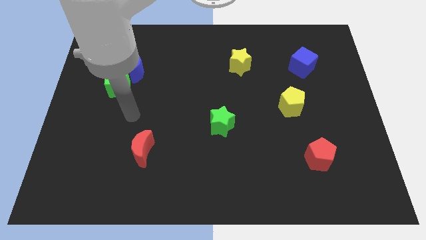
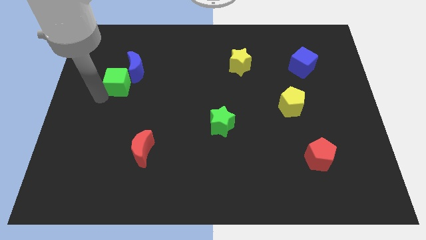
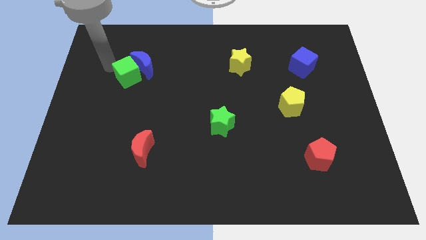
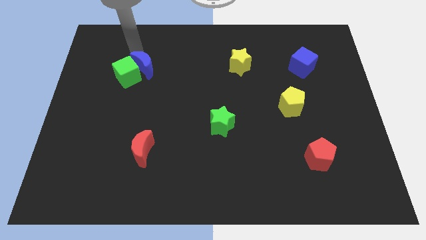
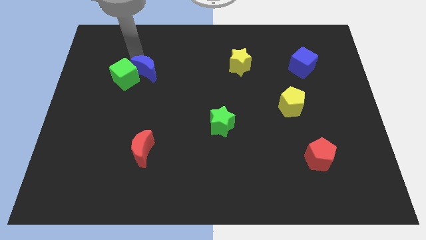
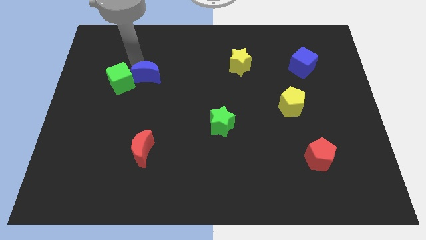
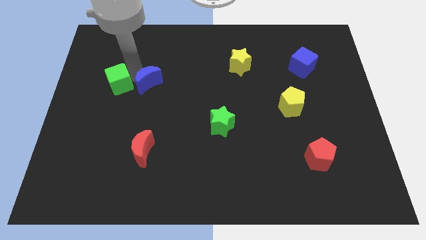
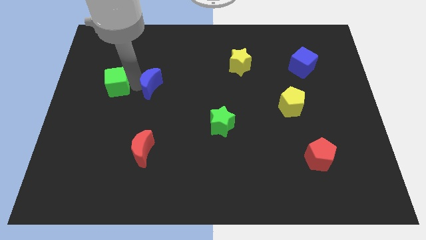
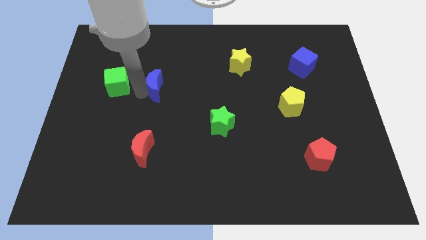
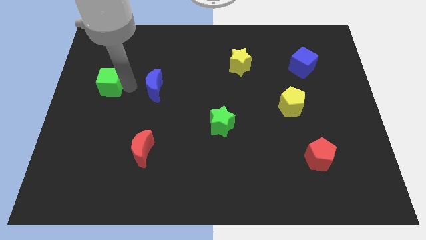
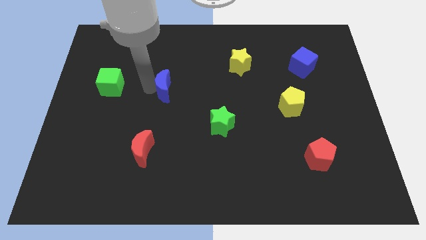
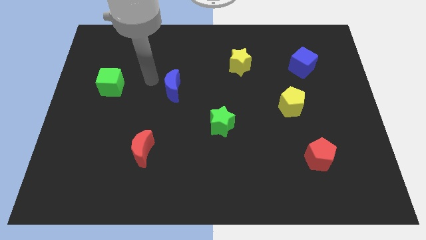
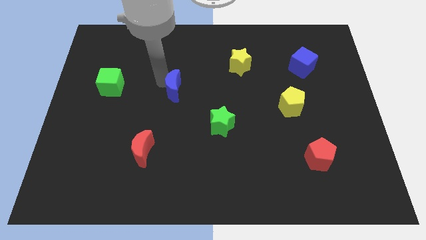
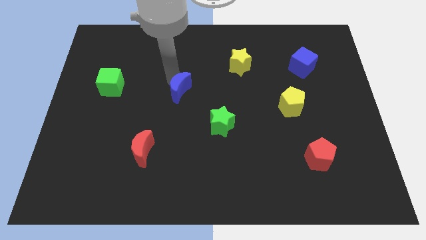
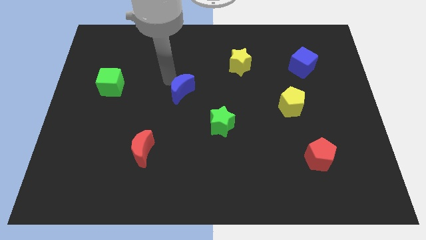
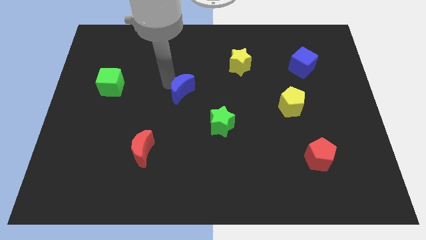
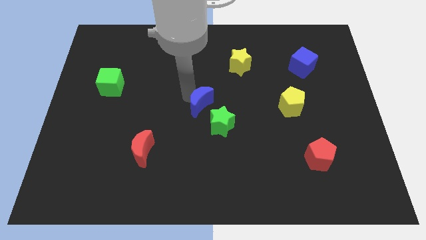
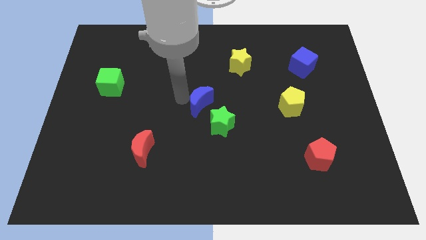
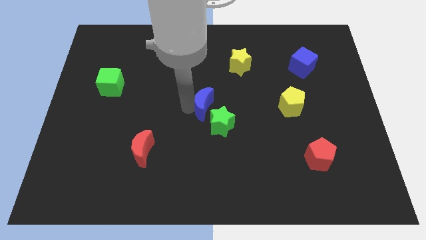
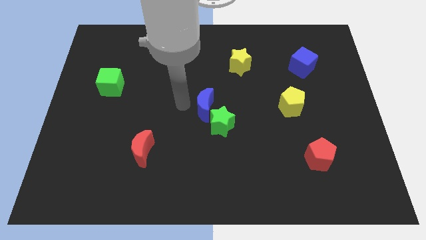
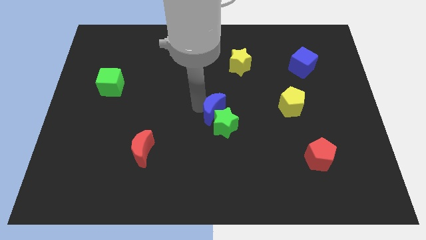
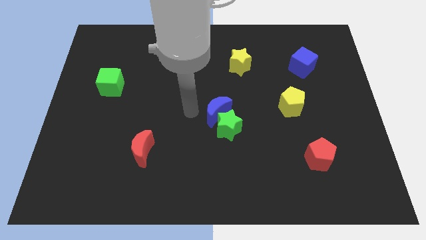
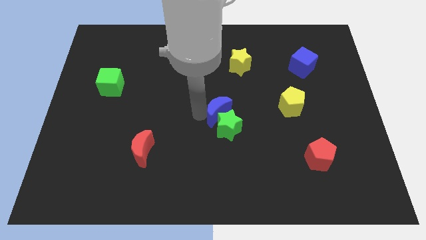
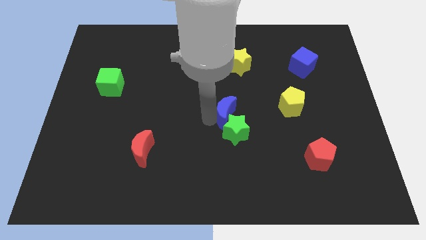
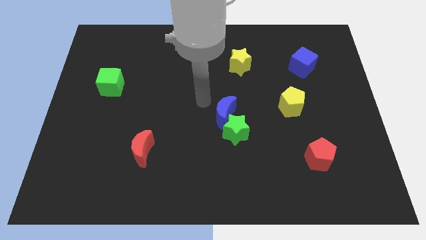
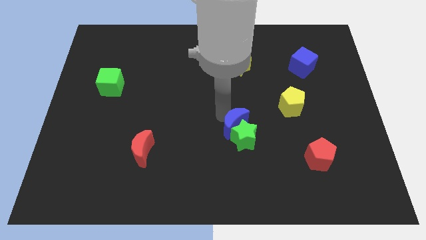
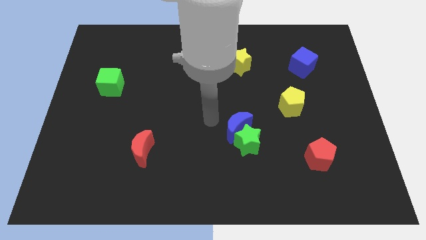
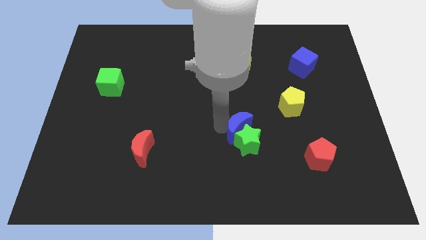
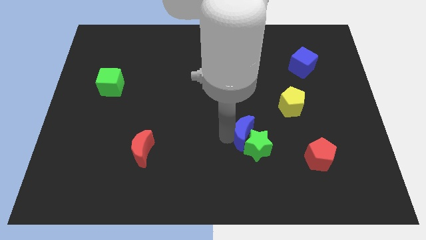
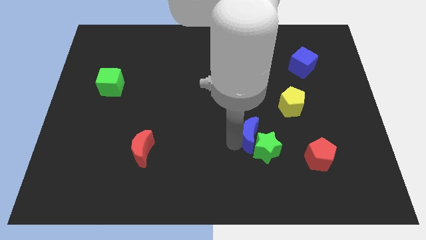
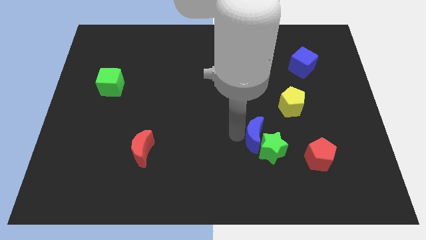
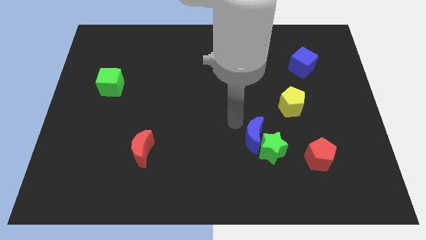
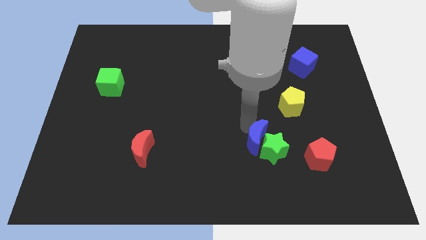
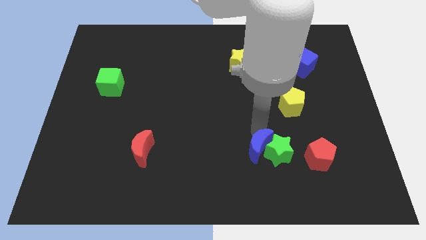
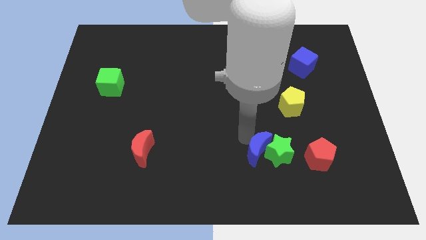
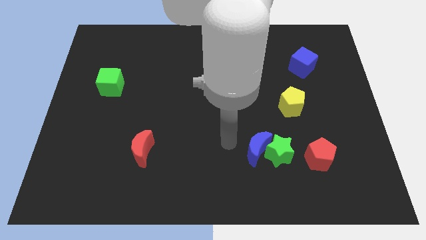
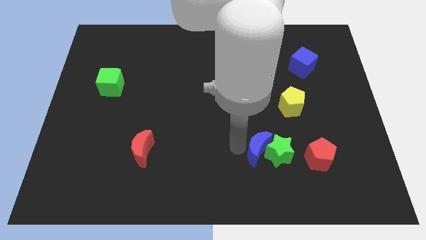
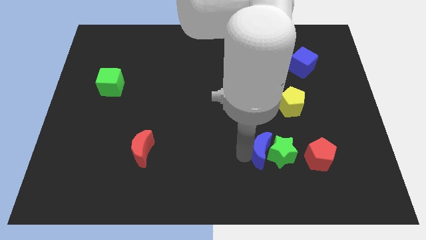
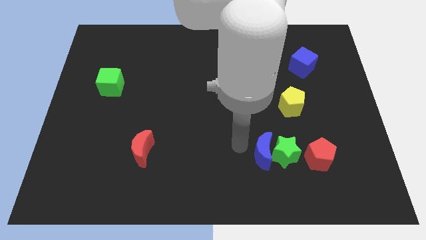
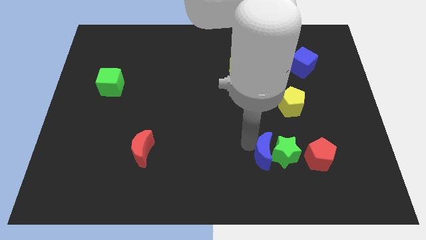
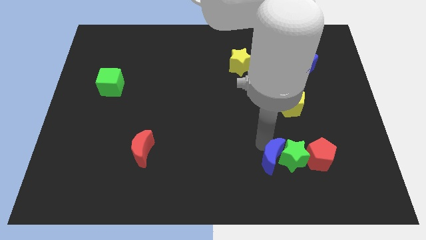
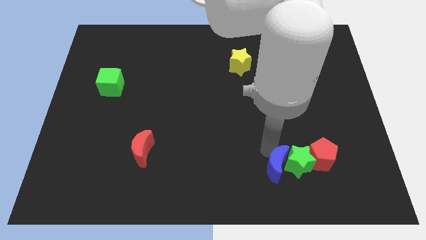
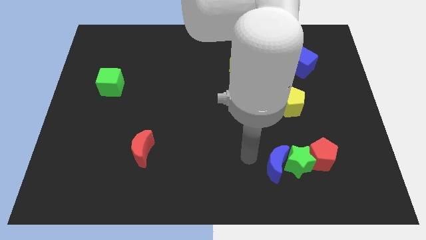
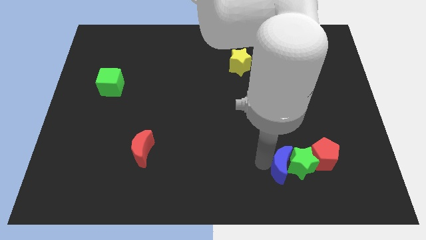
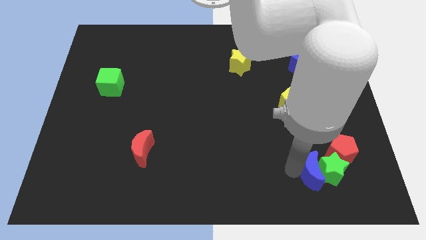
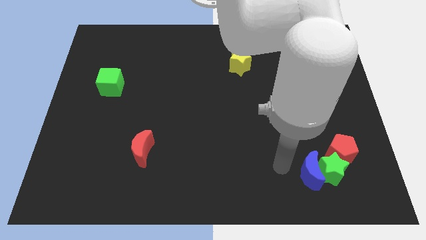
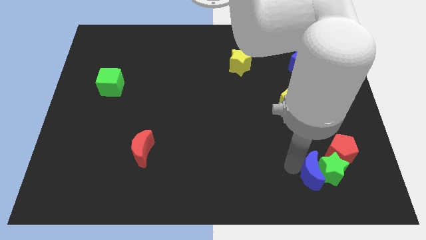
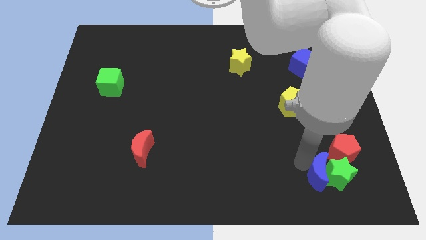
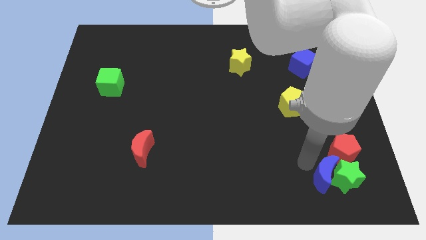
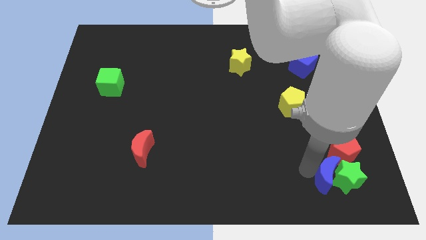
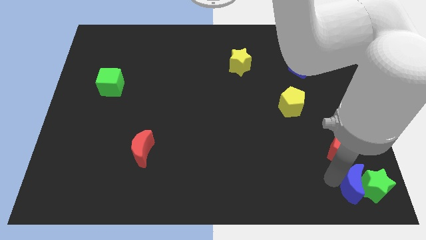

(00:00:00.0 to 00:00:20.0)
push the blue moon to the bottom right

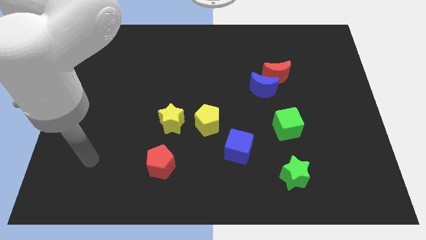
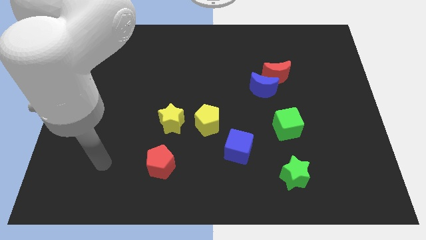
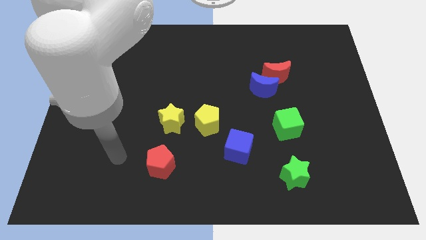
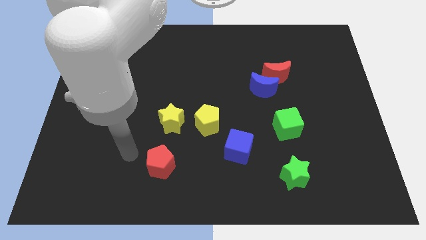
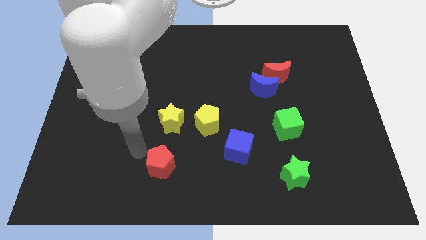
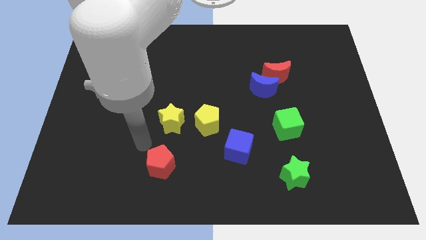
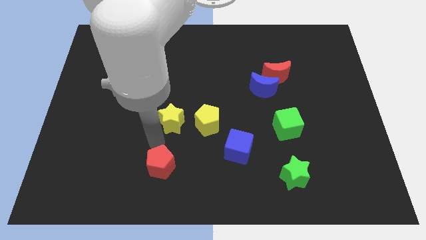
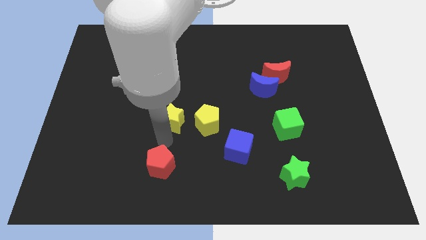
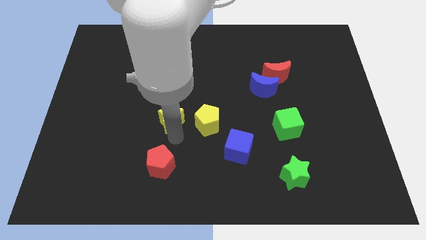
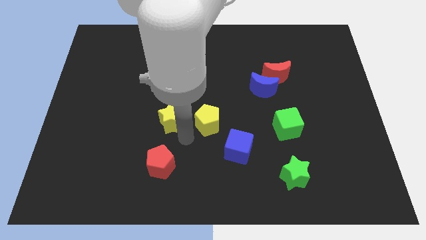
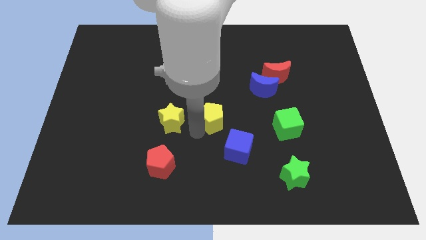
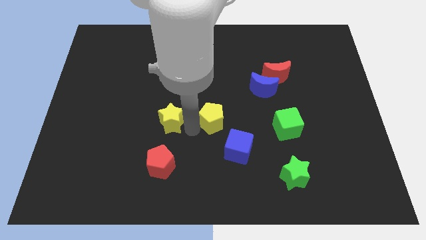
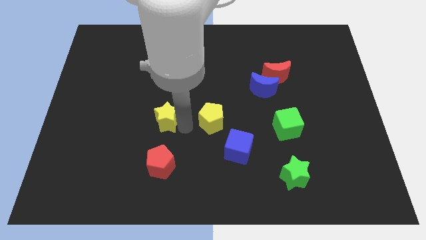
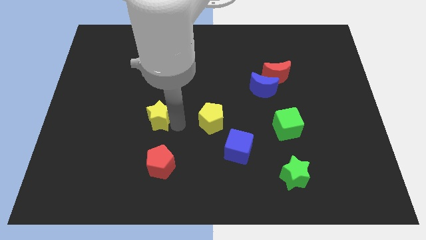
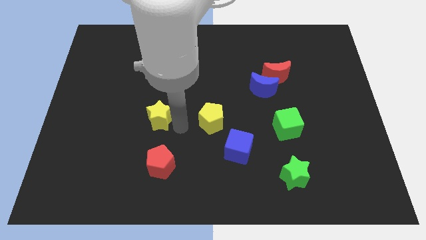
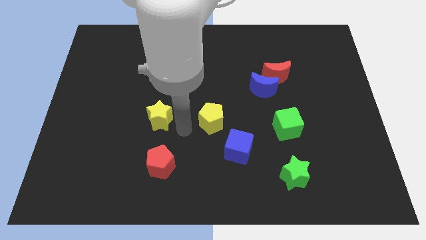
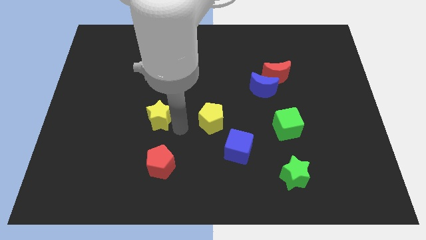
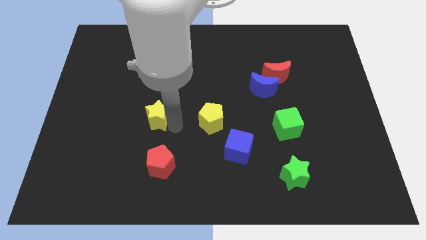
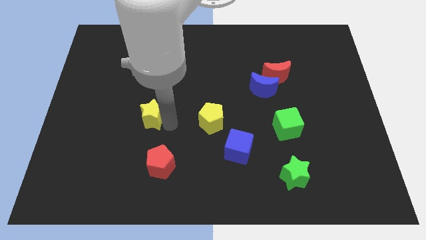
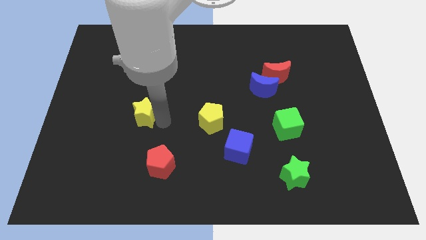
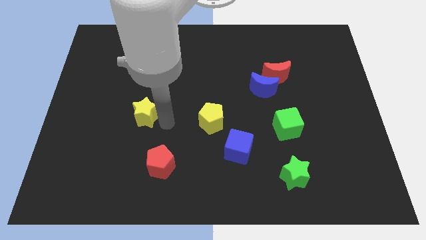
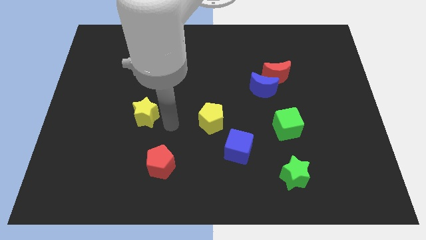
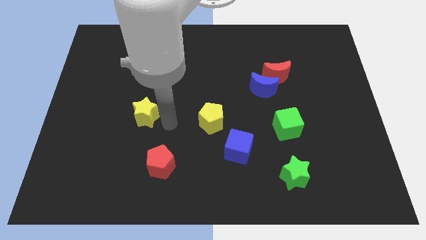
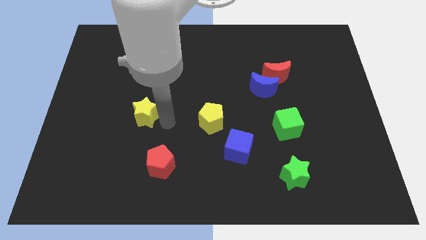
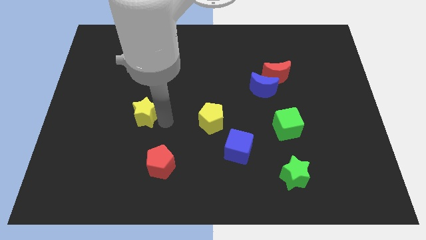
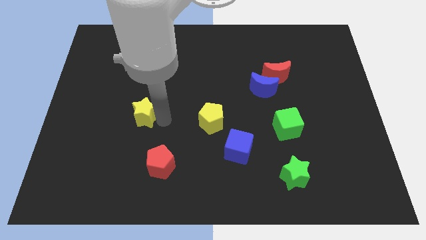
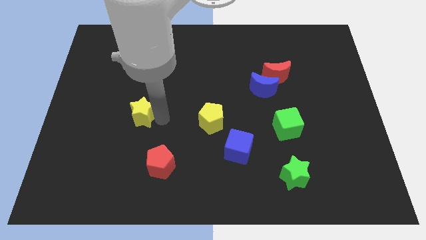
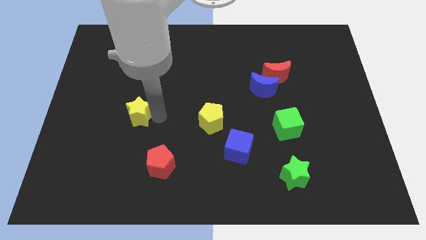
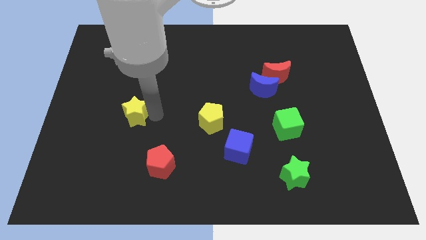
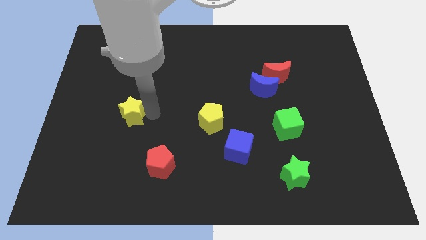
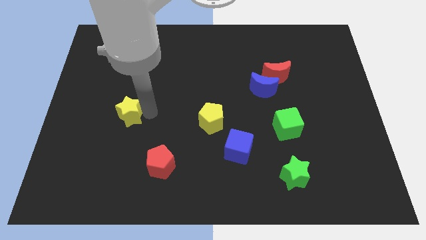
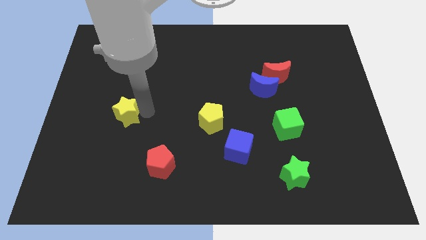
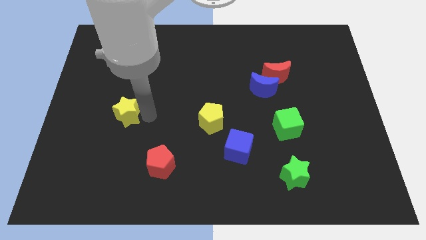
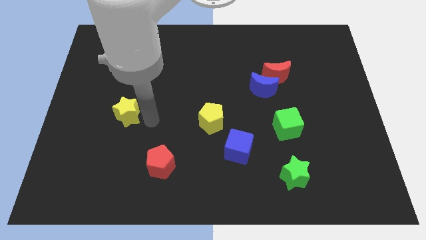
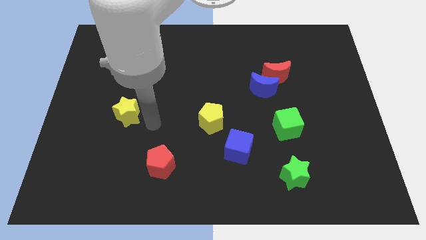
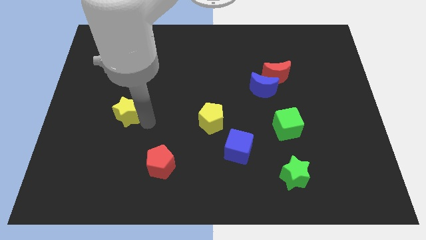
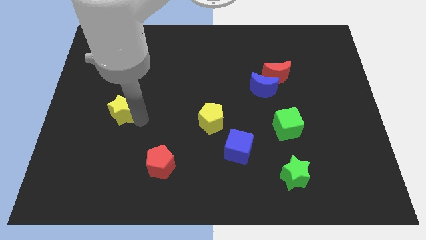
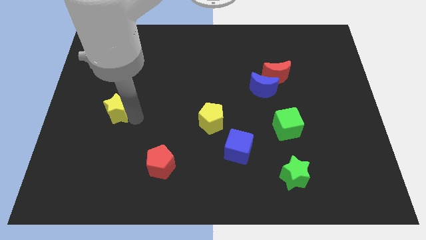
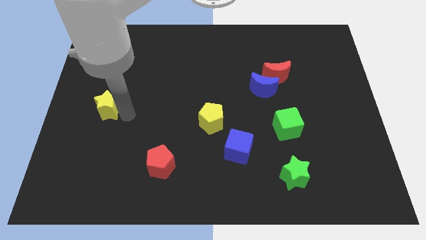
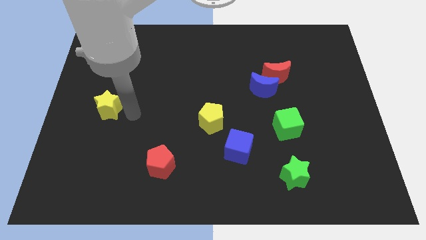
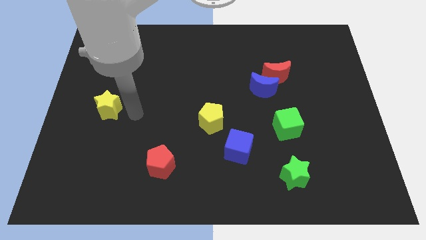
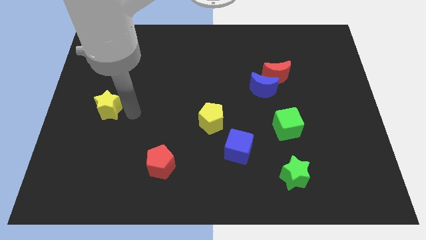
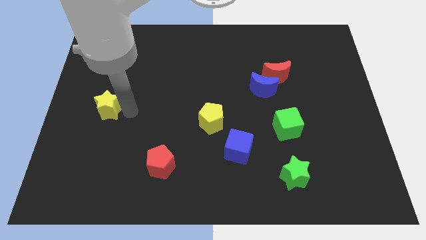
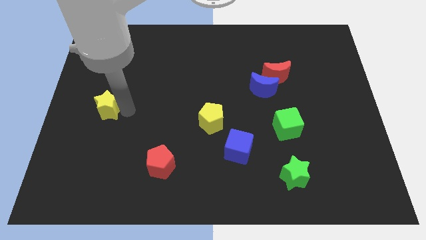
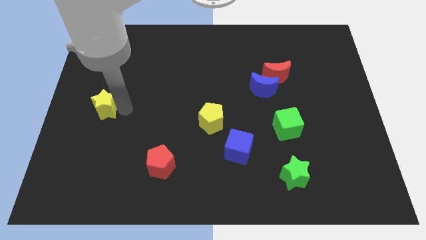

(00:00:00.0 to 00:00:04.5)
put the yellow star to the left side
